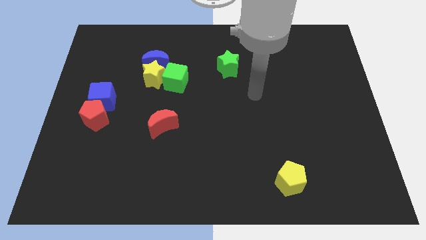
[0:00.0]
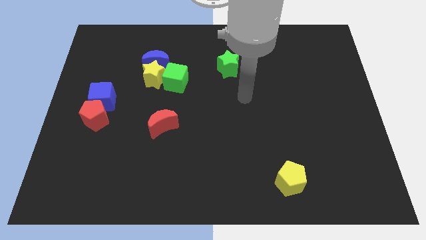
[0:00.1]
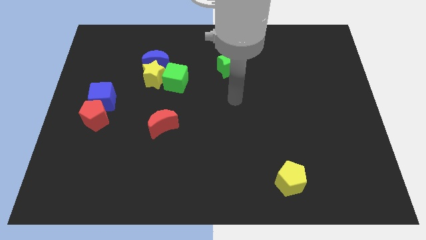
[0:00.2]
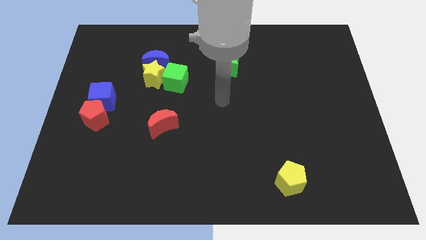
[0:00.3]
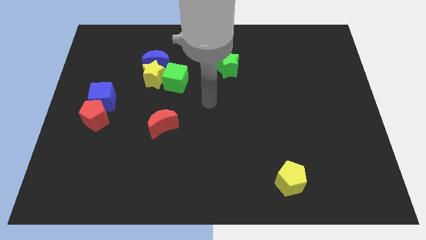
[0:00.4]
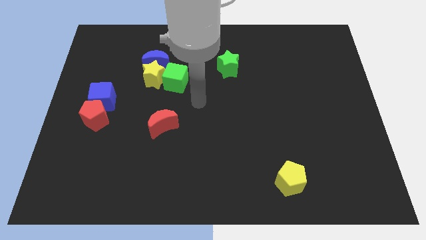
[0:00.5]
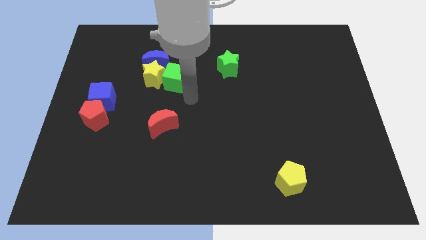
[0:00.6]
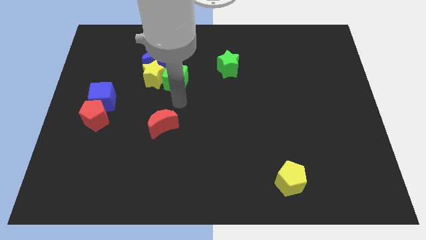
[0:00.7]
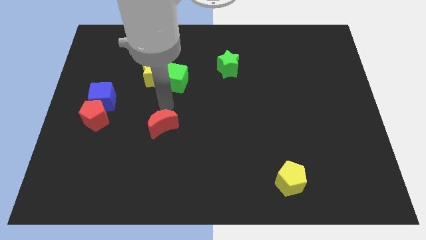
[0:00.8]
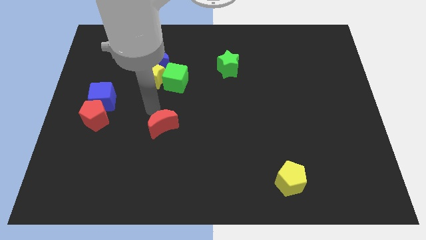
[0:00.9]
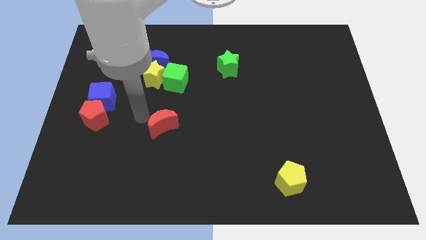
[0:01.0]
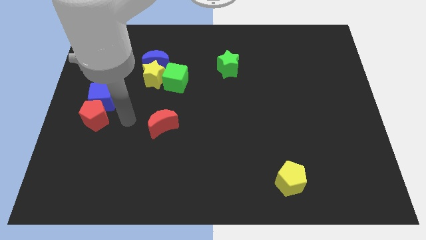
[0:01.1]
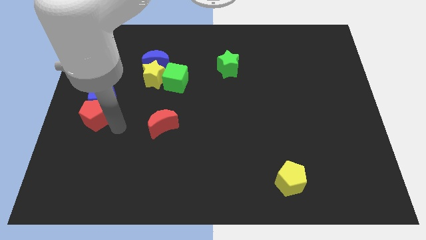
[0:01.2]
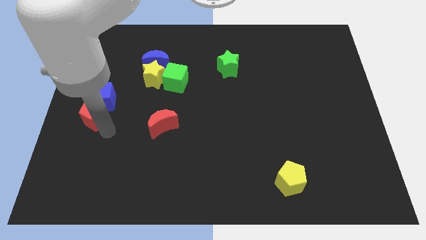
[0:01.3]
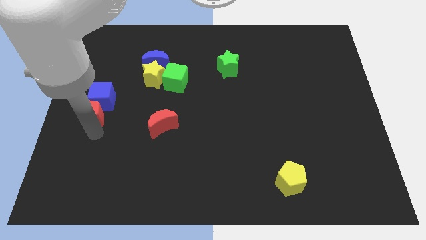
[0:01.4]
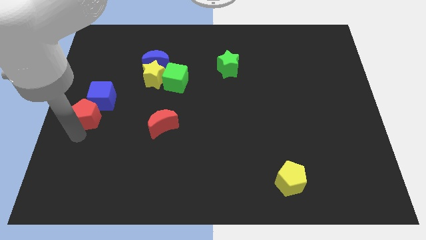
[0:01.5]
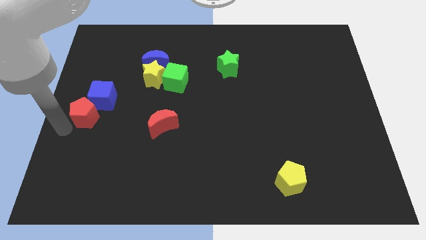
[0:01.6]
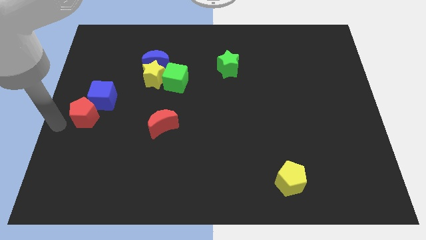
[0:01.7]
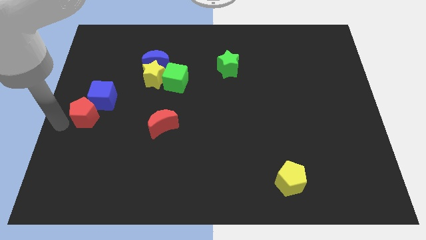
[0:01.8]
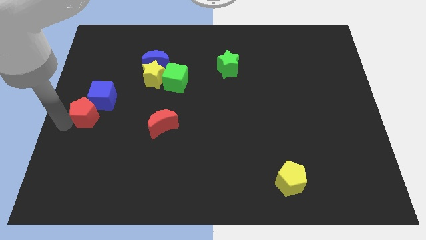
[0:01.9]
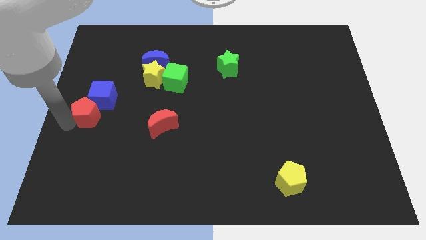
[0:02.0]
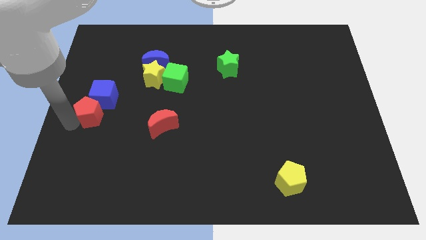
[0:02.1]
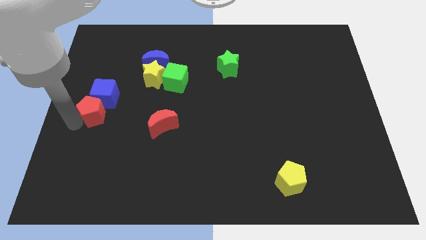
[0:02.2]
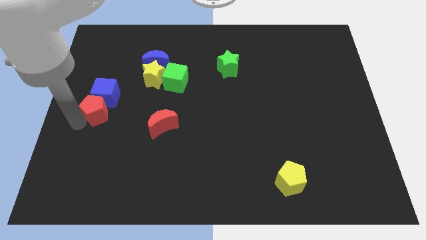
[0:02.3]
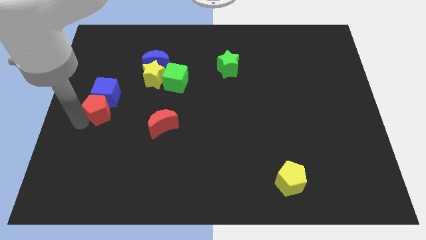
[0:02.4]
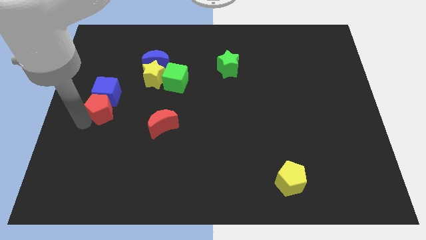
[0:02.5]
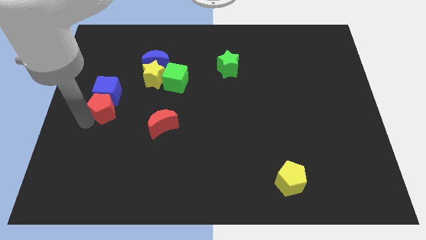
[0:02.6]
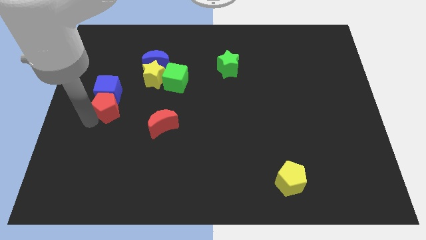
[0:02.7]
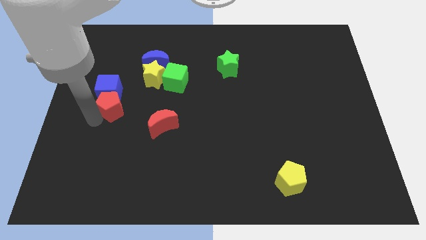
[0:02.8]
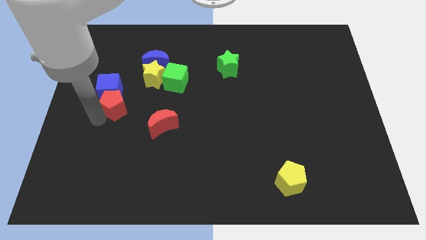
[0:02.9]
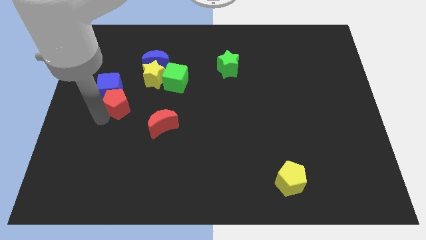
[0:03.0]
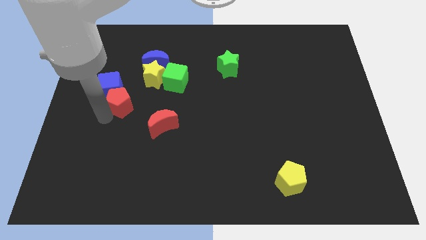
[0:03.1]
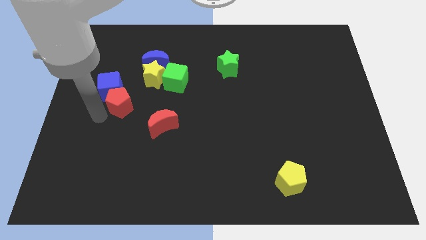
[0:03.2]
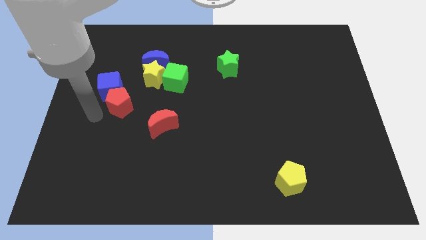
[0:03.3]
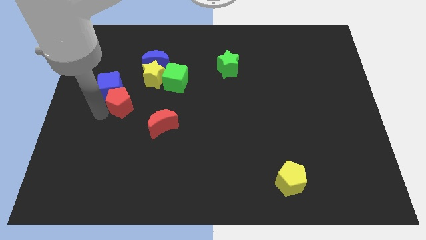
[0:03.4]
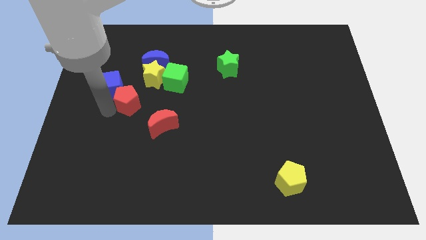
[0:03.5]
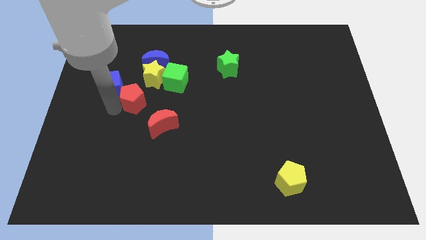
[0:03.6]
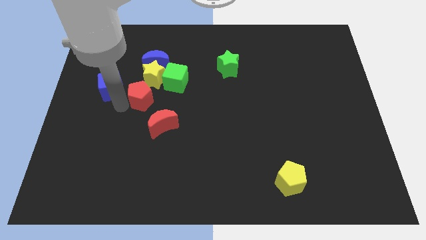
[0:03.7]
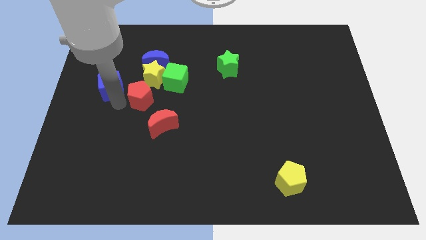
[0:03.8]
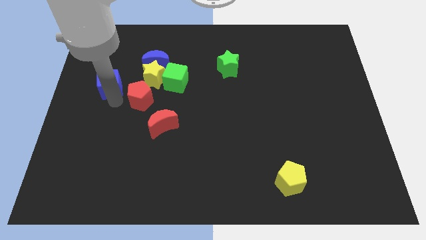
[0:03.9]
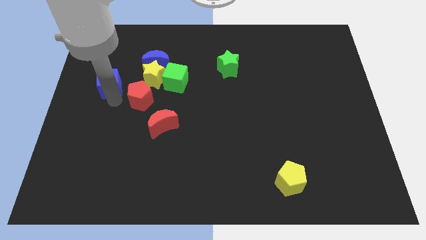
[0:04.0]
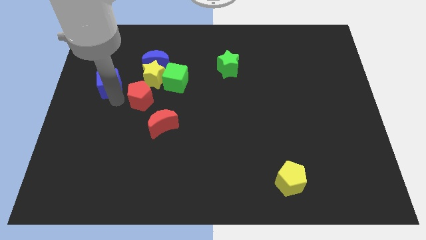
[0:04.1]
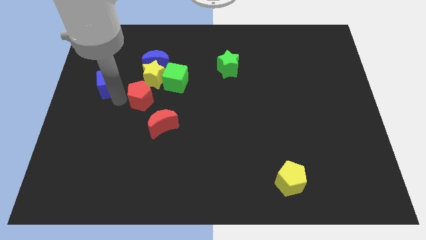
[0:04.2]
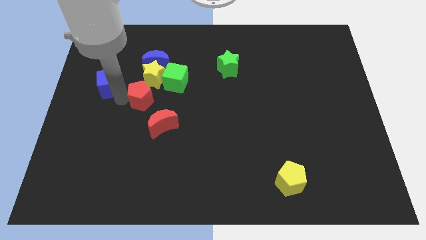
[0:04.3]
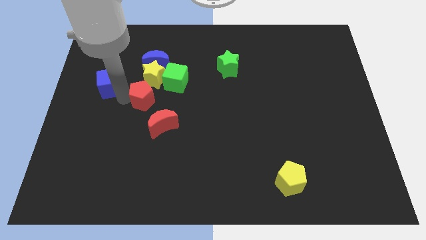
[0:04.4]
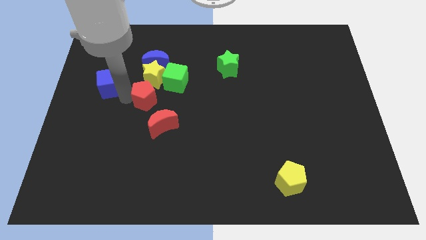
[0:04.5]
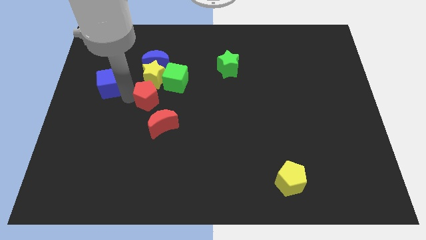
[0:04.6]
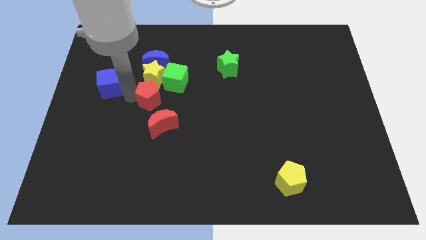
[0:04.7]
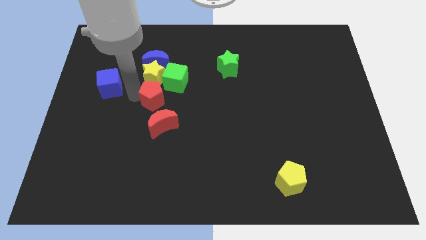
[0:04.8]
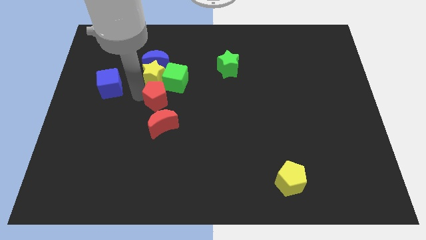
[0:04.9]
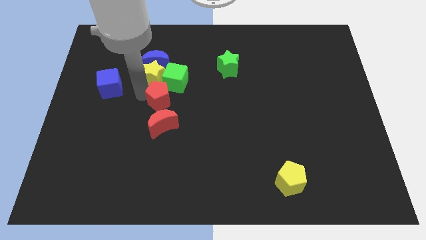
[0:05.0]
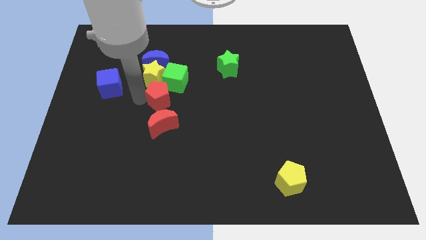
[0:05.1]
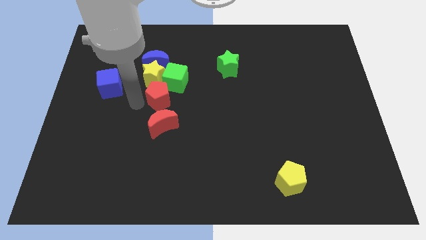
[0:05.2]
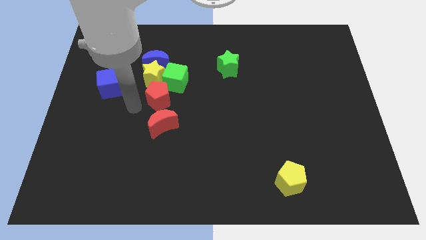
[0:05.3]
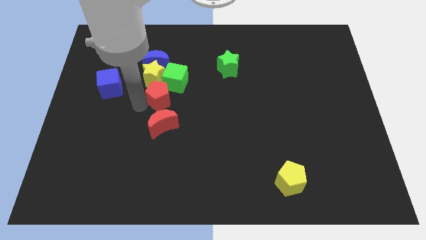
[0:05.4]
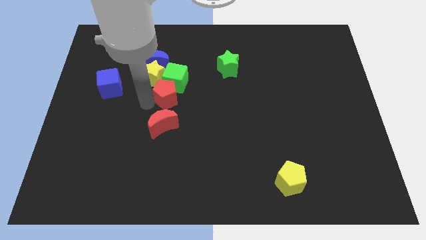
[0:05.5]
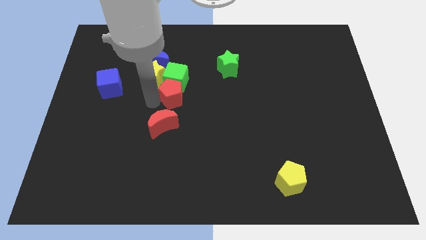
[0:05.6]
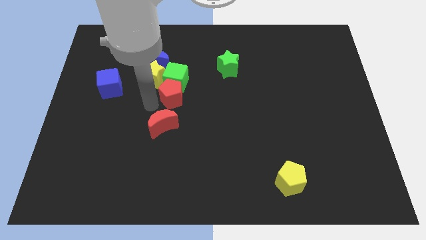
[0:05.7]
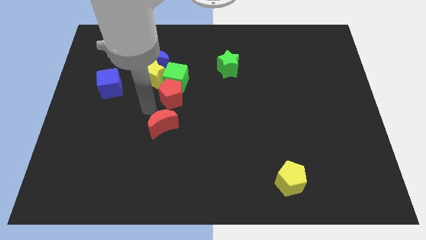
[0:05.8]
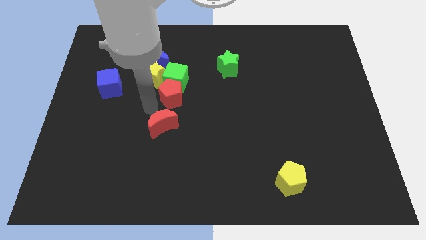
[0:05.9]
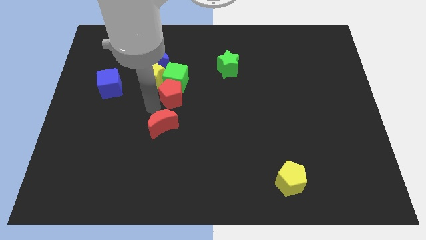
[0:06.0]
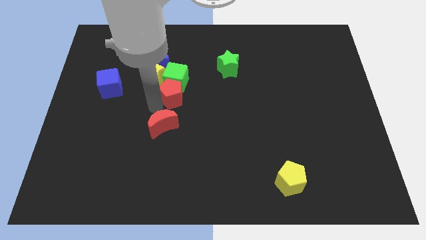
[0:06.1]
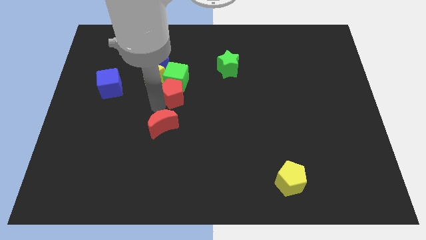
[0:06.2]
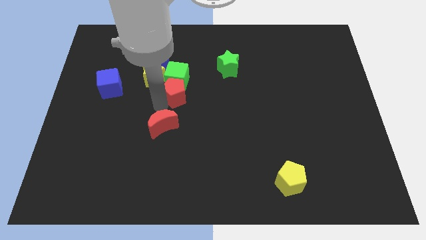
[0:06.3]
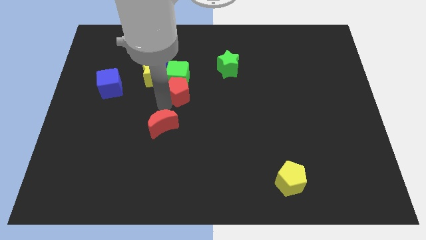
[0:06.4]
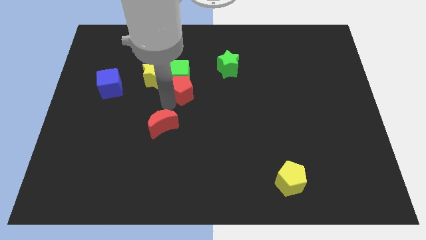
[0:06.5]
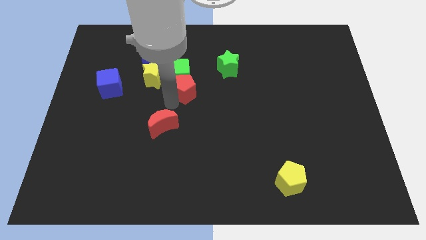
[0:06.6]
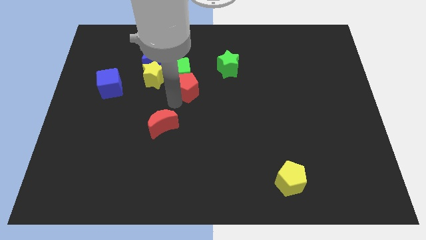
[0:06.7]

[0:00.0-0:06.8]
move the red pentagon diagonally down and to the left of the green star

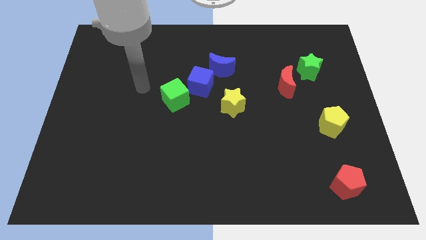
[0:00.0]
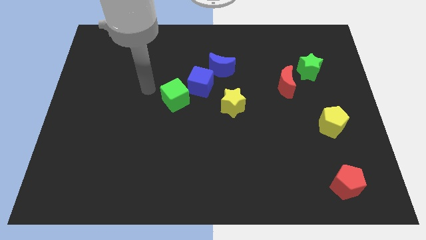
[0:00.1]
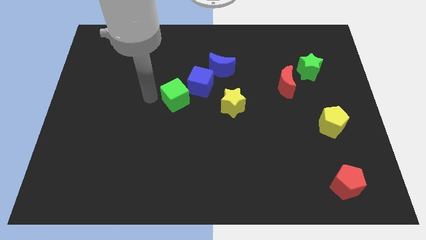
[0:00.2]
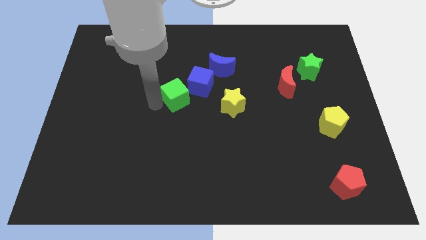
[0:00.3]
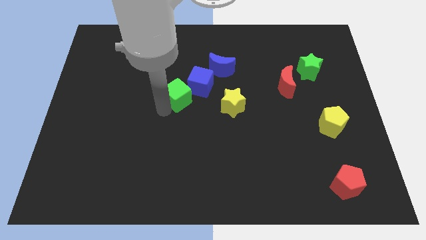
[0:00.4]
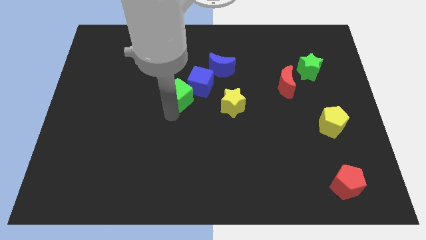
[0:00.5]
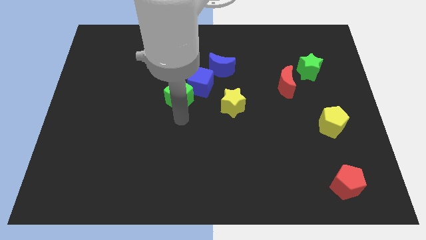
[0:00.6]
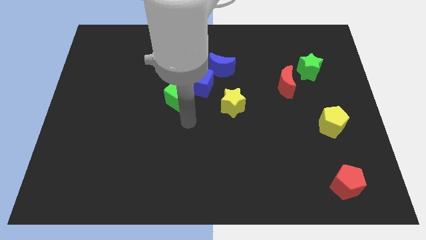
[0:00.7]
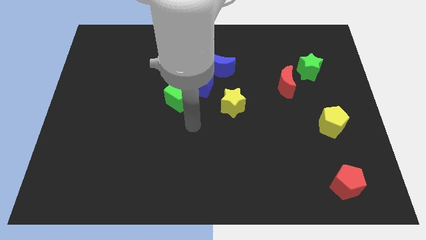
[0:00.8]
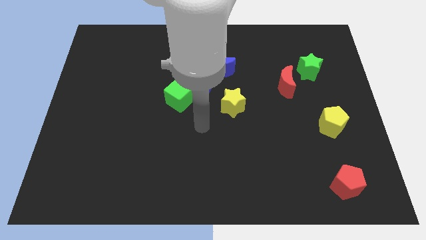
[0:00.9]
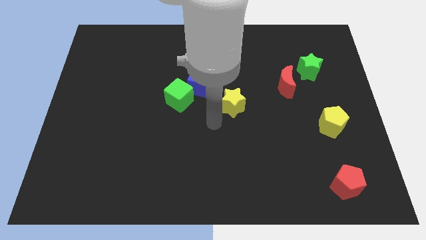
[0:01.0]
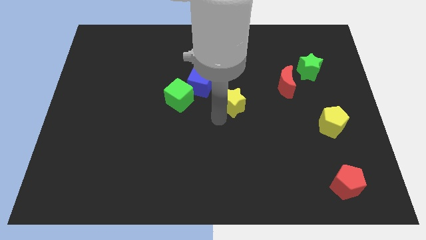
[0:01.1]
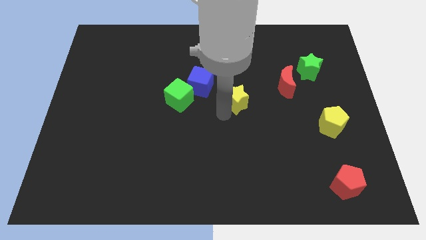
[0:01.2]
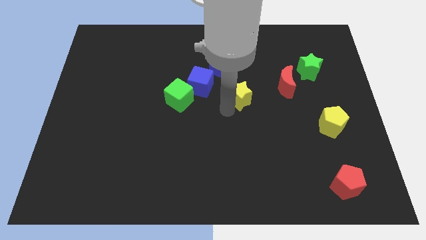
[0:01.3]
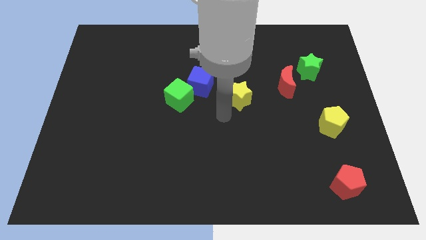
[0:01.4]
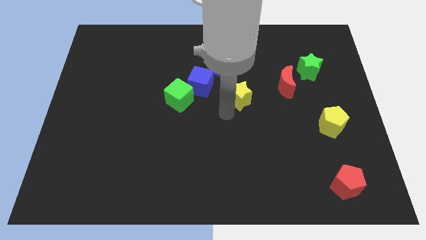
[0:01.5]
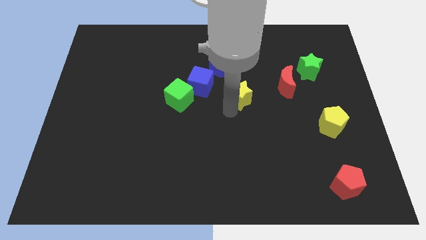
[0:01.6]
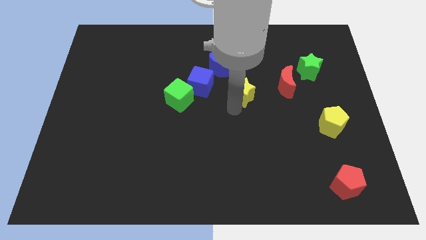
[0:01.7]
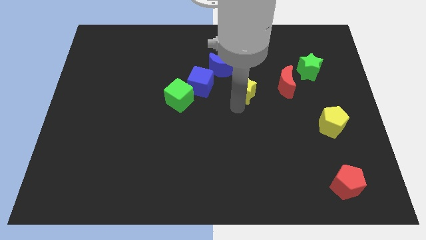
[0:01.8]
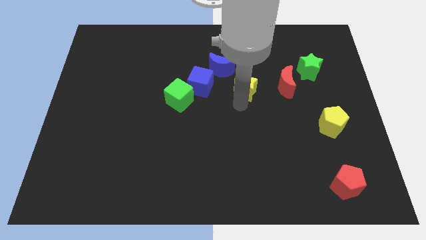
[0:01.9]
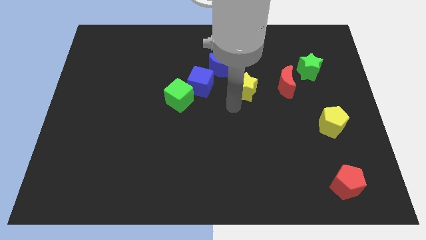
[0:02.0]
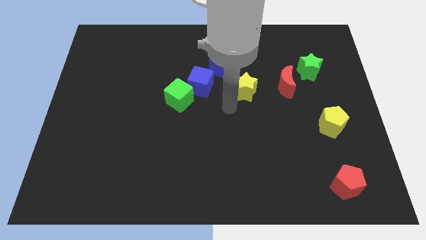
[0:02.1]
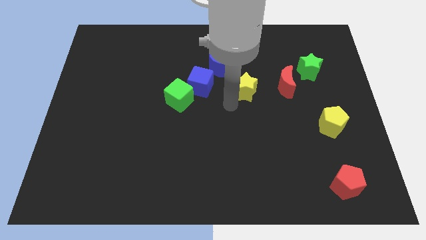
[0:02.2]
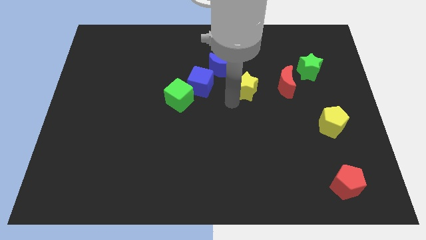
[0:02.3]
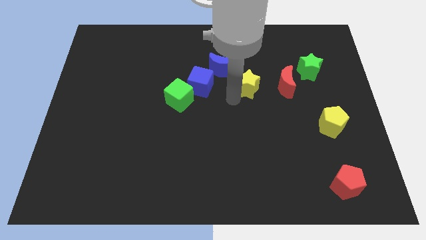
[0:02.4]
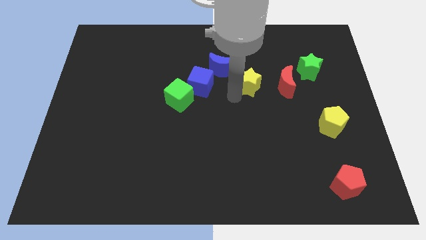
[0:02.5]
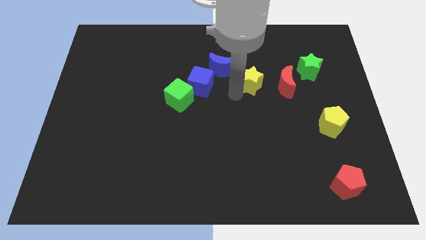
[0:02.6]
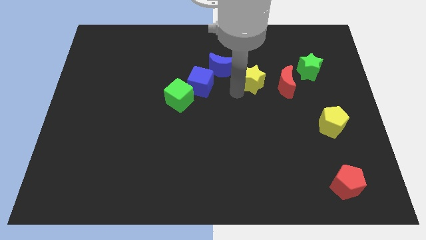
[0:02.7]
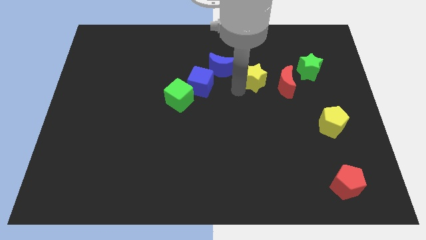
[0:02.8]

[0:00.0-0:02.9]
move the yellow star to the top left side of the red moon
